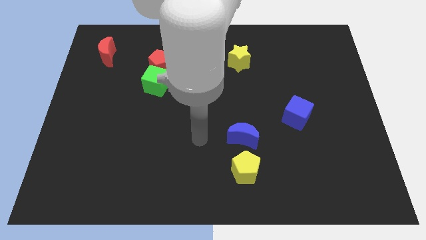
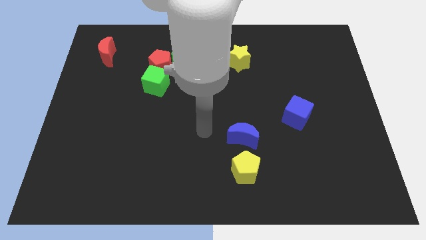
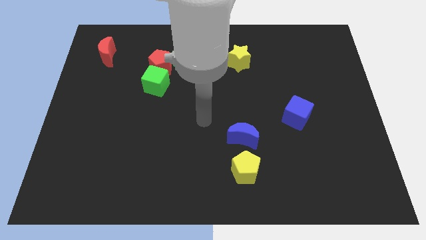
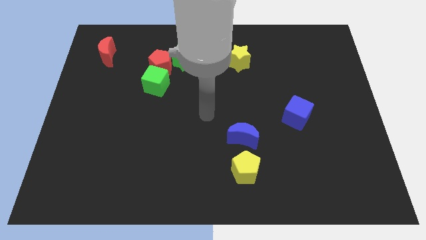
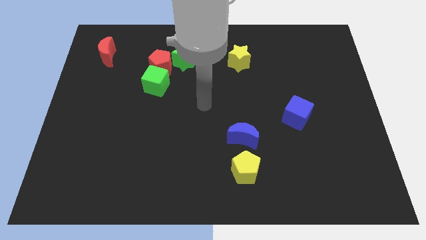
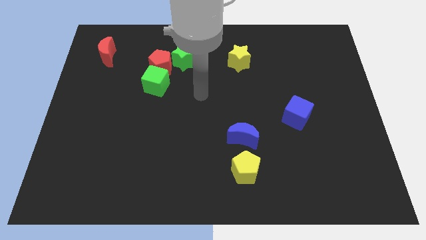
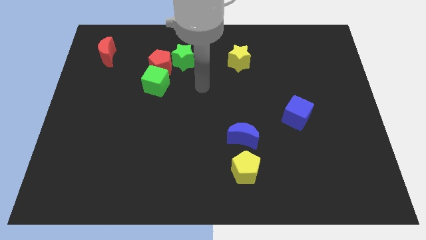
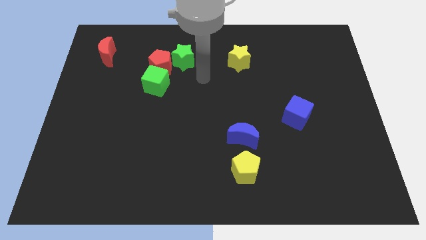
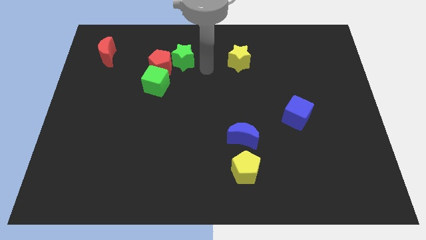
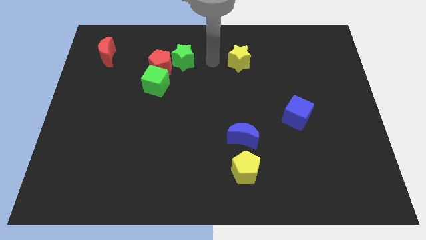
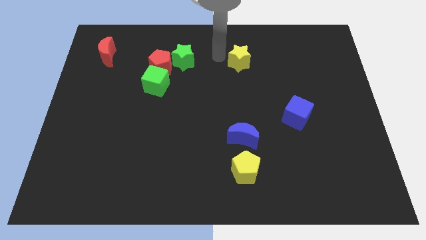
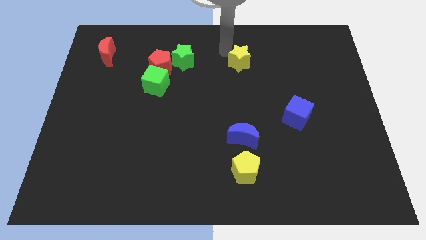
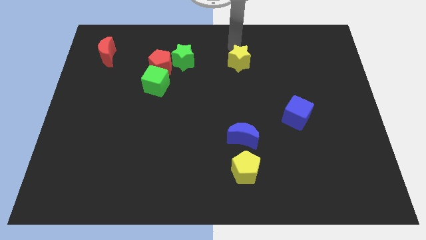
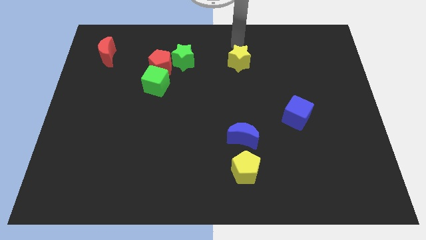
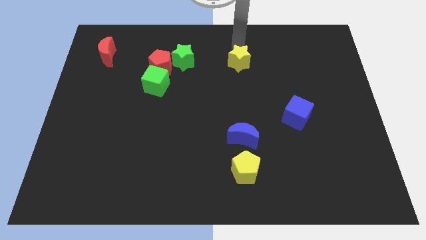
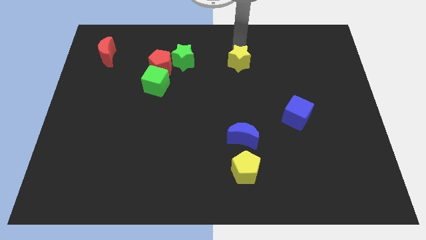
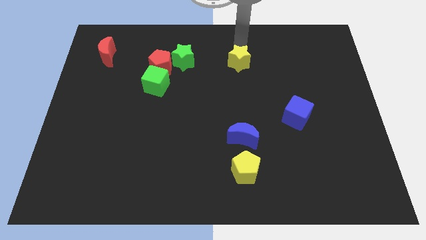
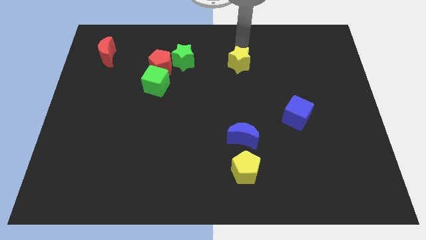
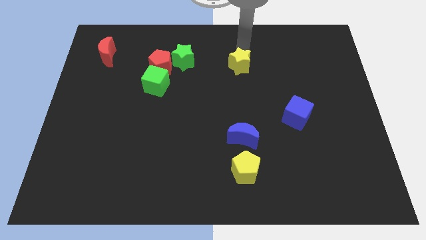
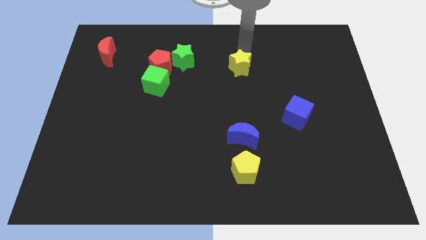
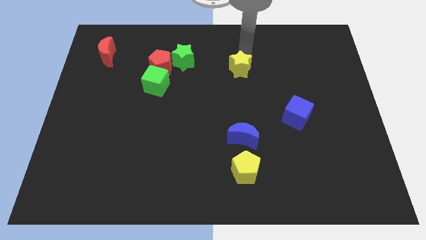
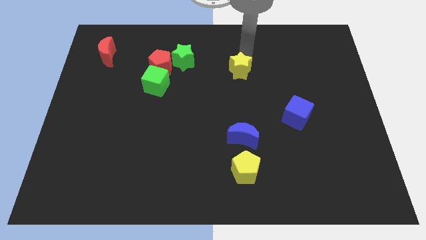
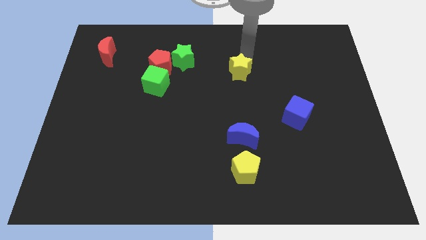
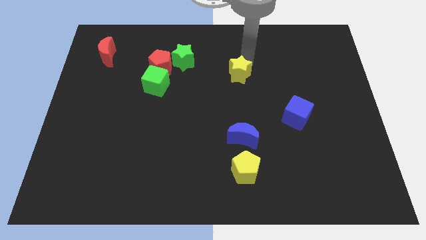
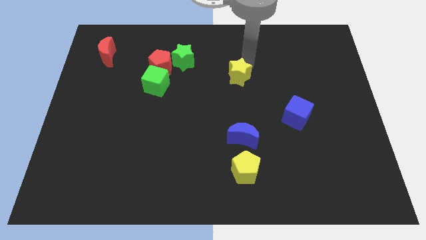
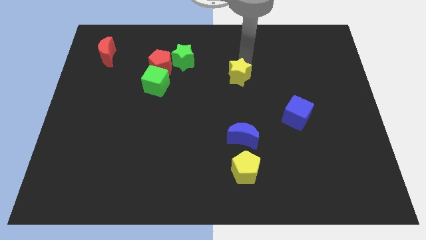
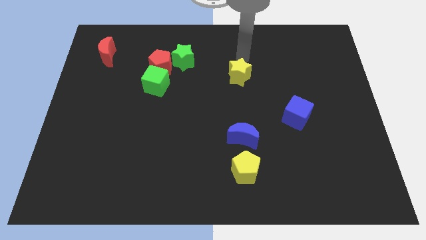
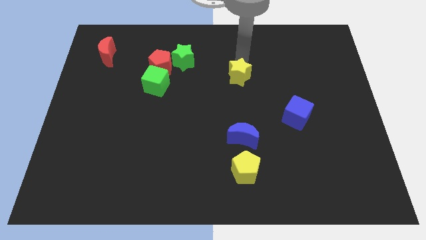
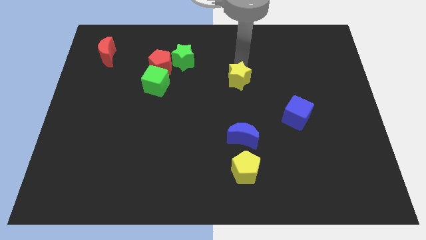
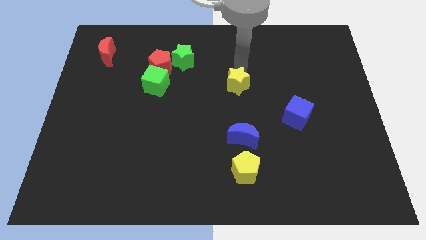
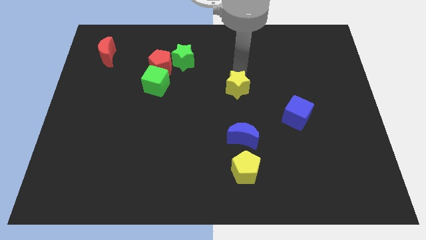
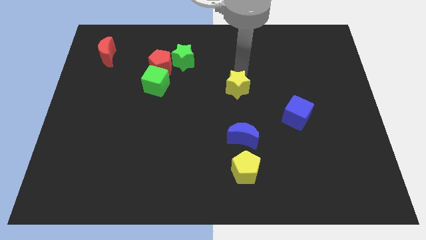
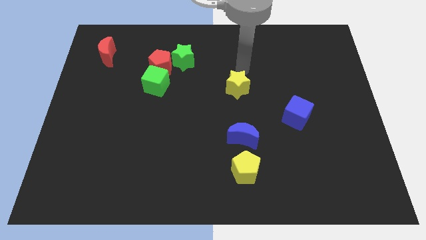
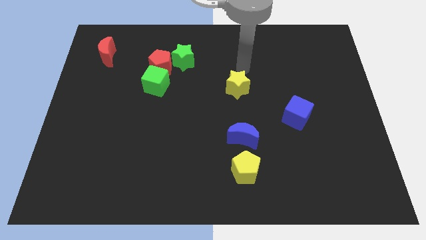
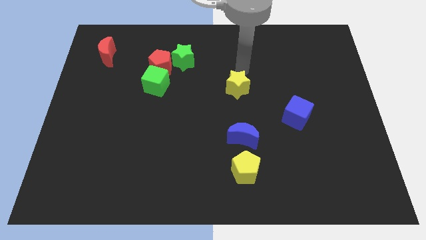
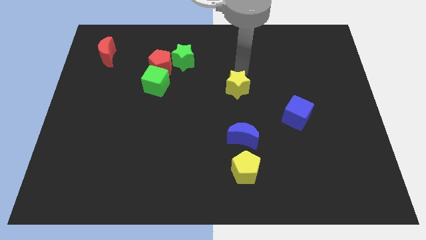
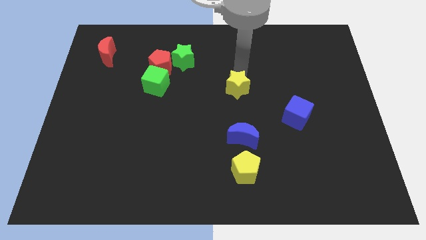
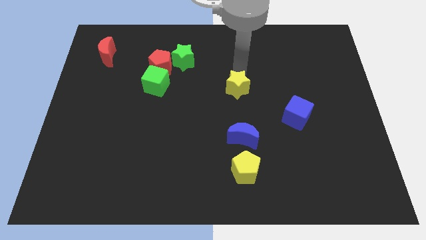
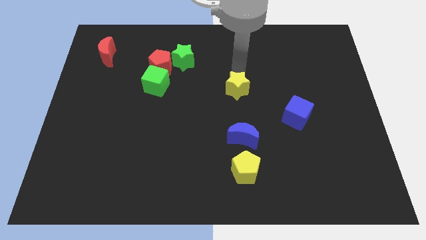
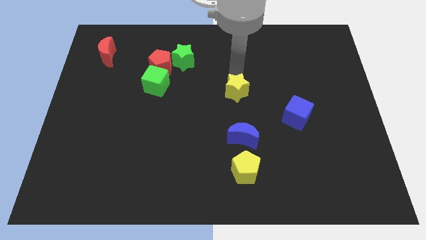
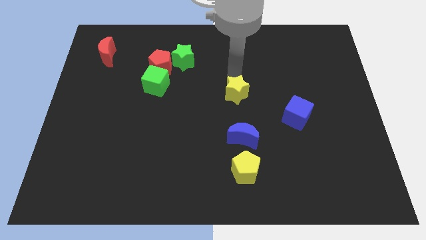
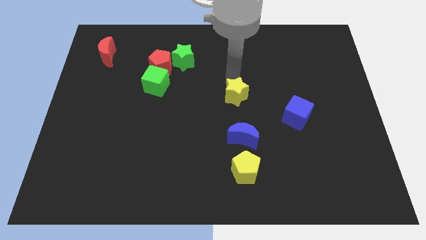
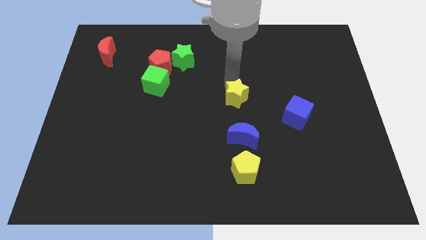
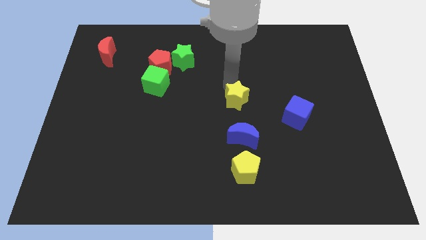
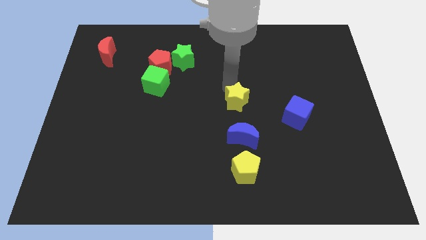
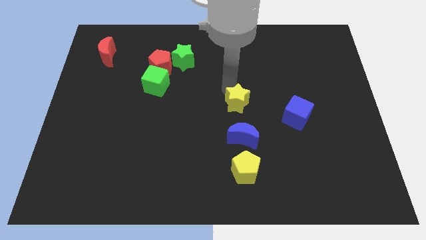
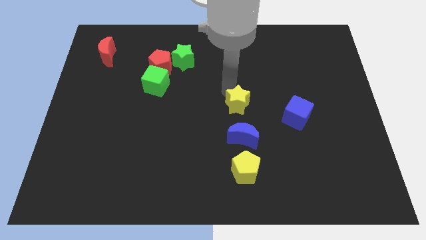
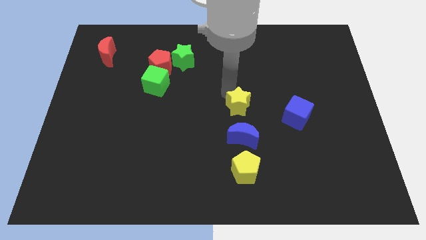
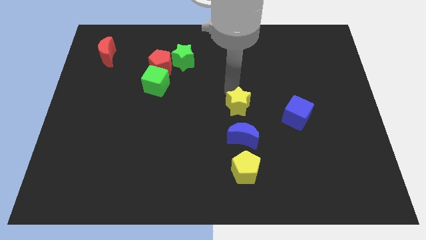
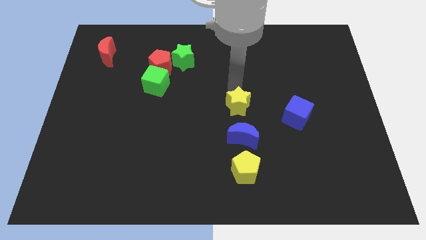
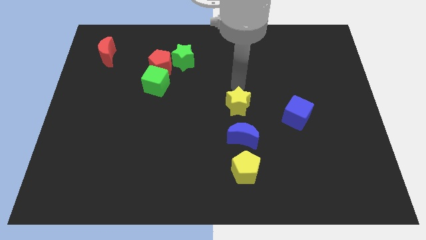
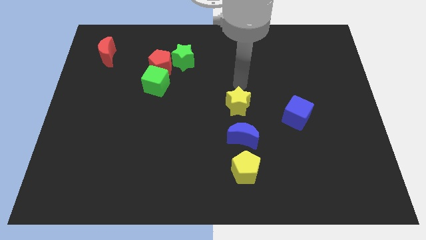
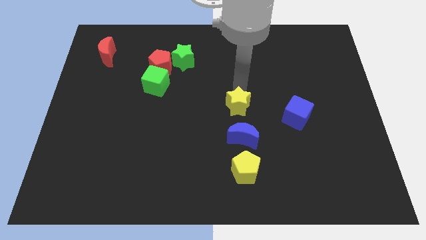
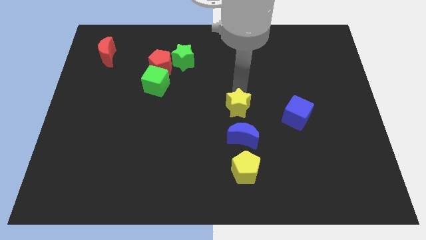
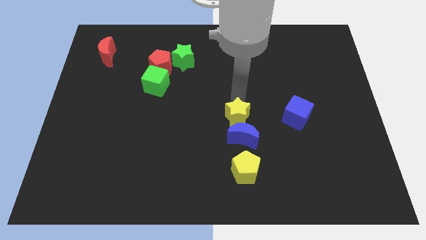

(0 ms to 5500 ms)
push the yellow star towards the blue moon

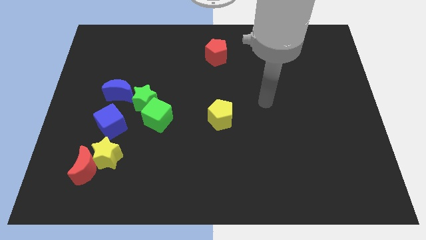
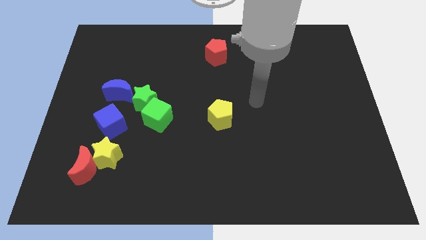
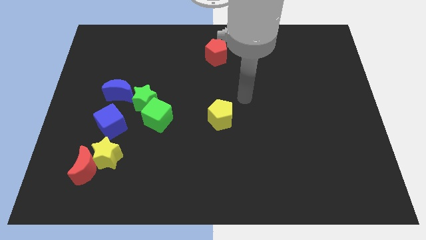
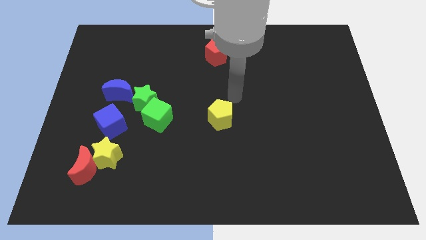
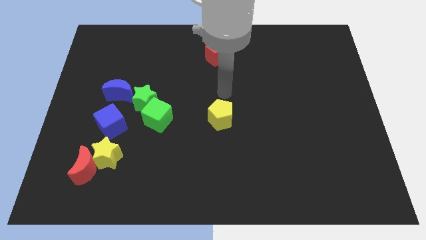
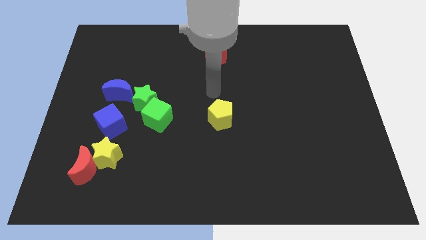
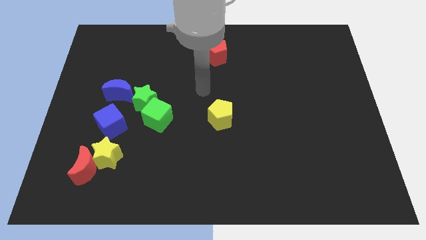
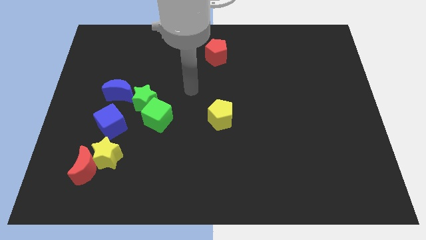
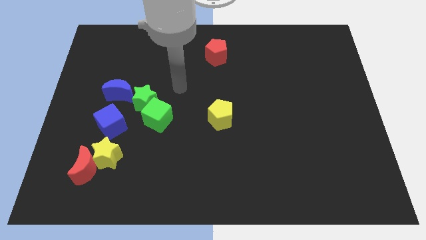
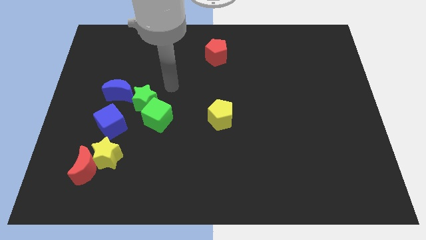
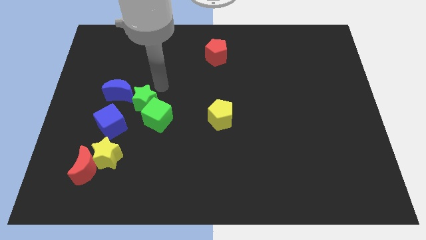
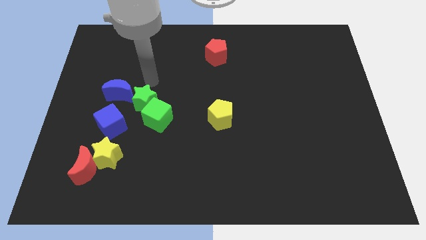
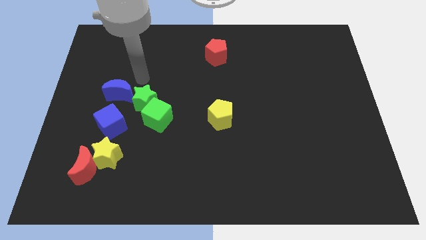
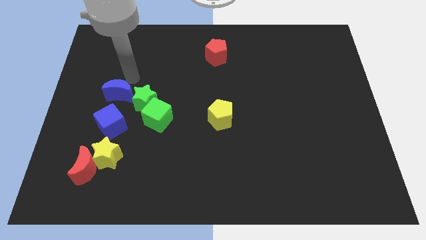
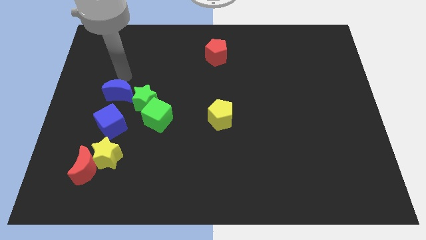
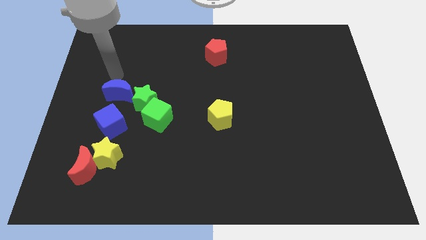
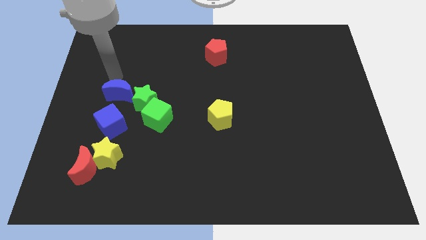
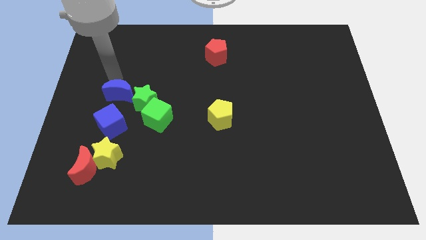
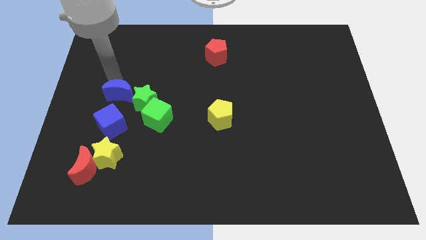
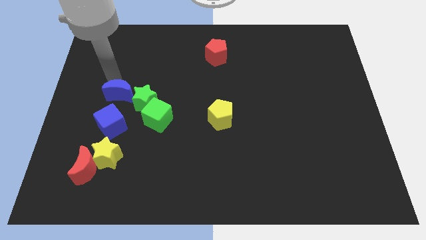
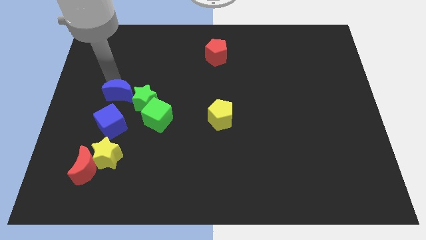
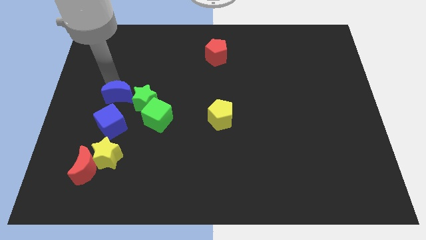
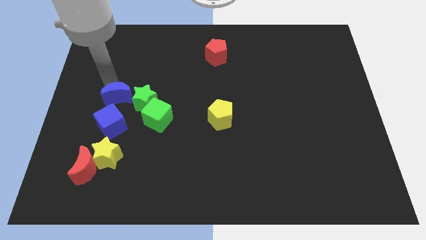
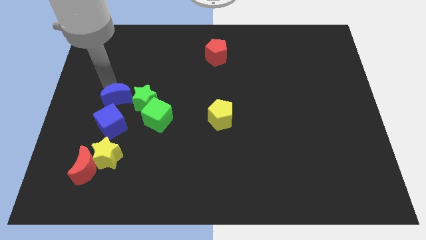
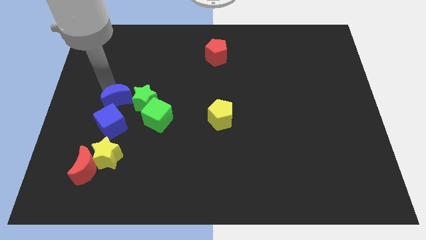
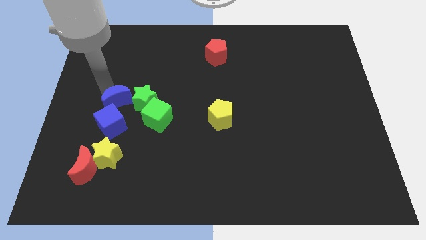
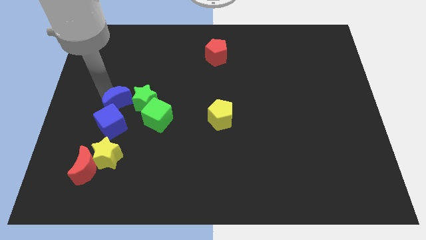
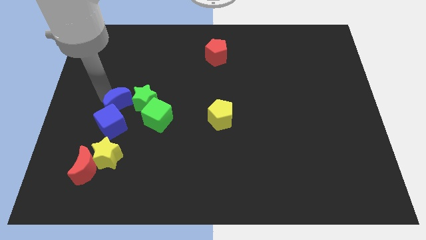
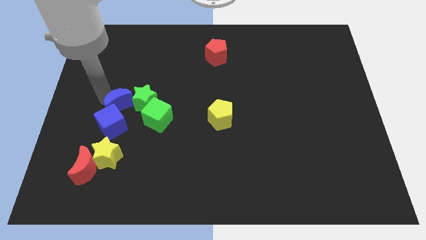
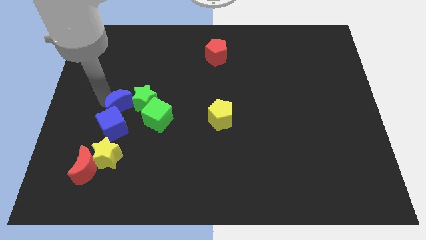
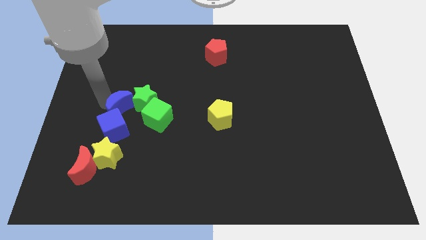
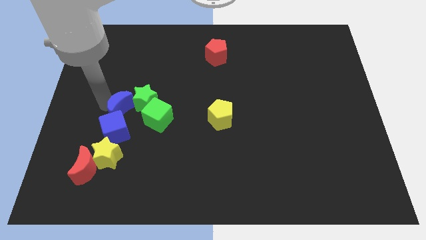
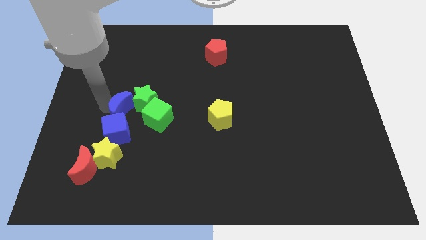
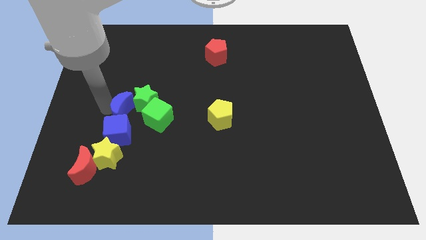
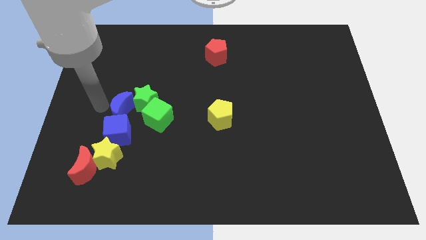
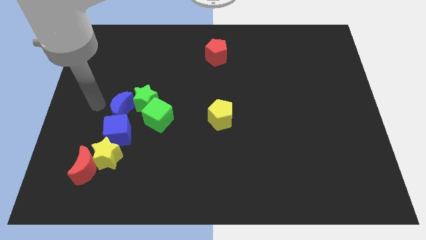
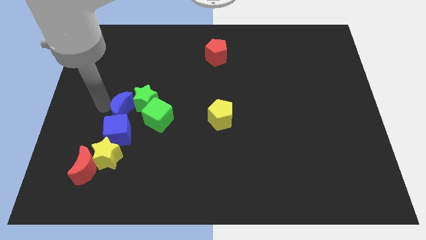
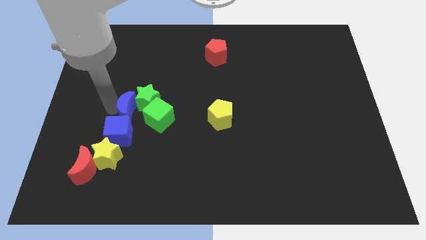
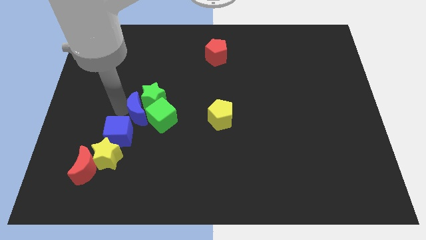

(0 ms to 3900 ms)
push the blue moon close to the green cube
